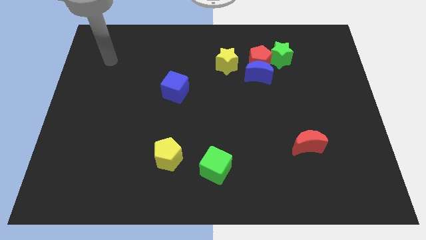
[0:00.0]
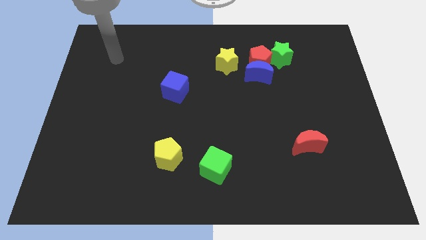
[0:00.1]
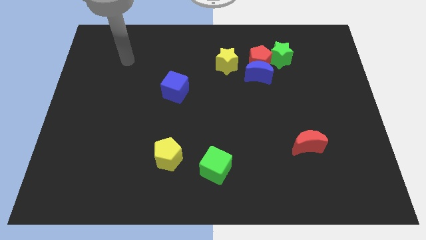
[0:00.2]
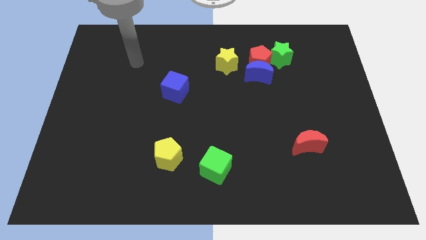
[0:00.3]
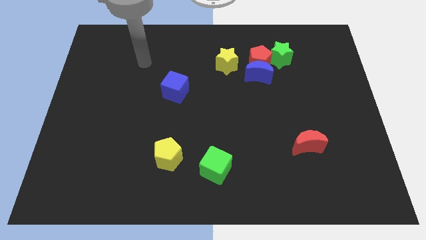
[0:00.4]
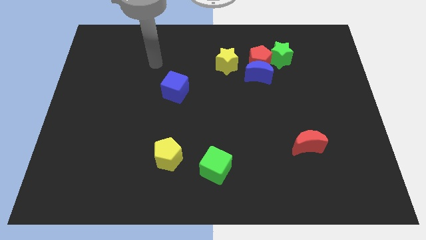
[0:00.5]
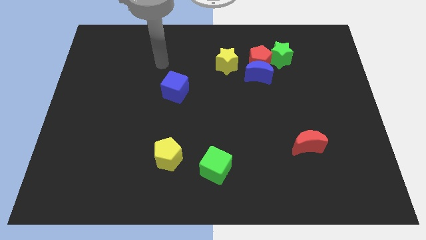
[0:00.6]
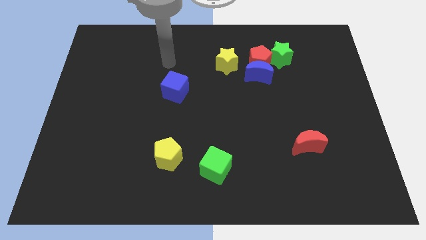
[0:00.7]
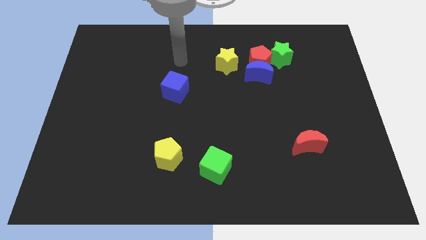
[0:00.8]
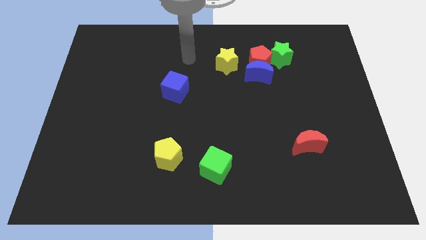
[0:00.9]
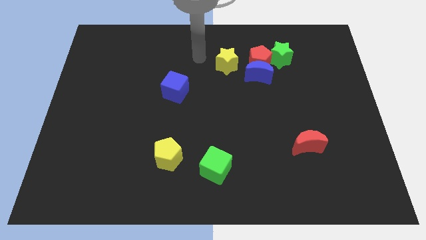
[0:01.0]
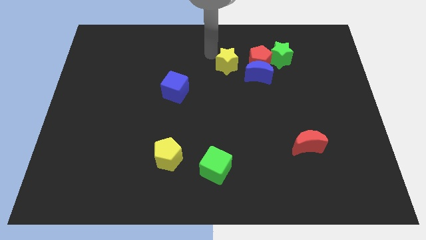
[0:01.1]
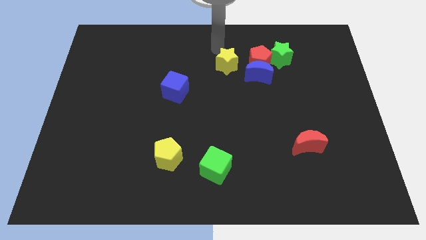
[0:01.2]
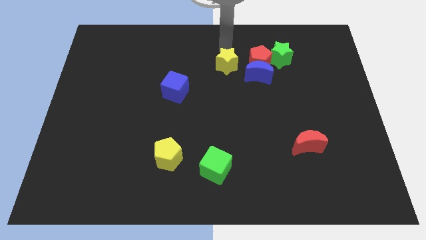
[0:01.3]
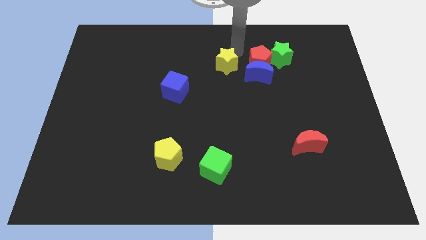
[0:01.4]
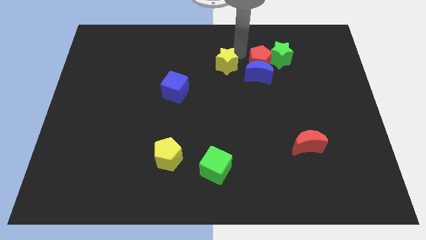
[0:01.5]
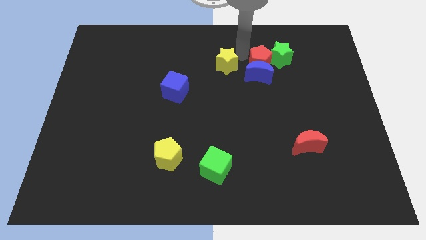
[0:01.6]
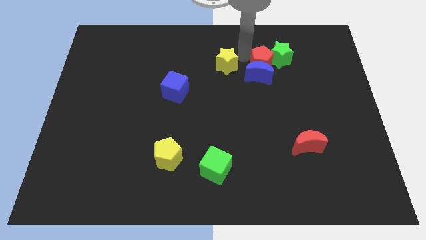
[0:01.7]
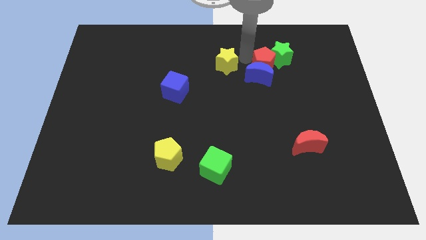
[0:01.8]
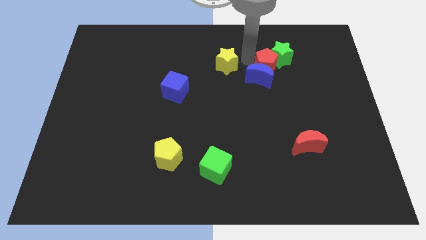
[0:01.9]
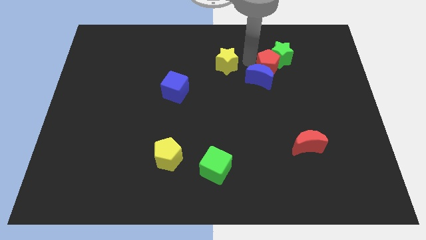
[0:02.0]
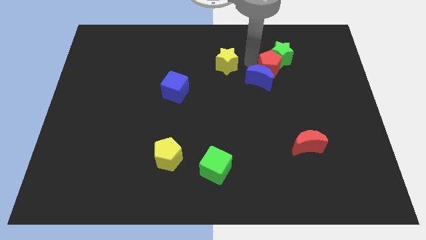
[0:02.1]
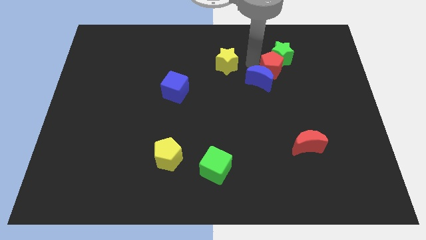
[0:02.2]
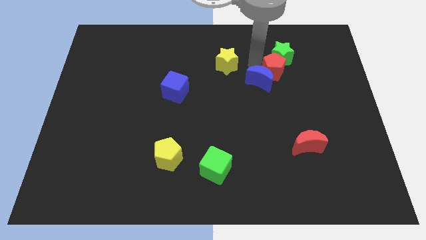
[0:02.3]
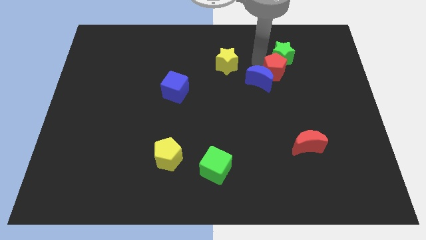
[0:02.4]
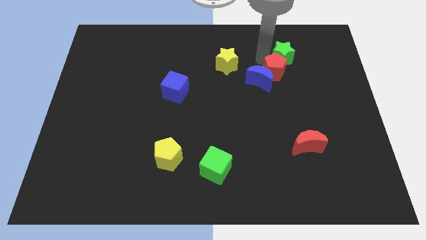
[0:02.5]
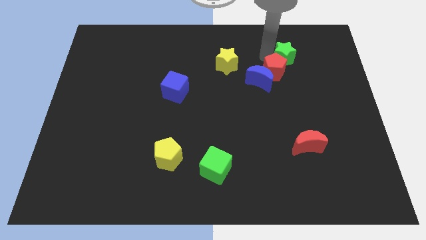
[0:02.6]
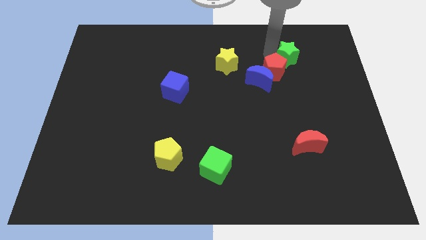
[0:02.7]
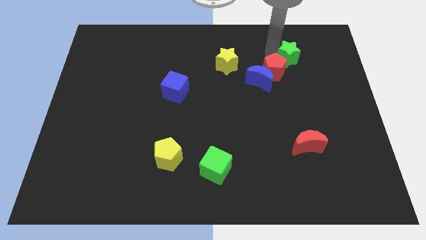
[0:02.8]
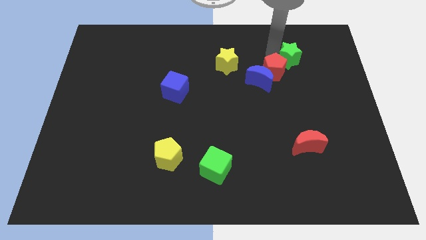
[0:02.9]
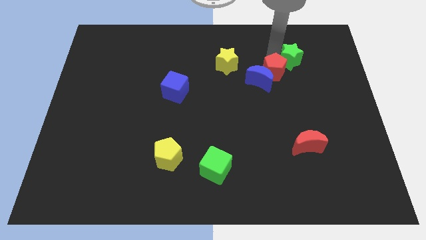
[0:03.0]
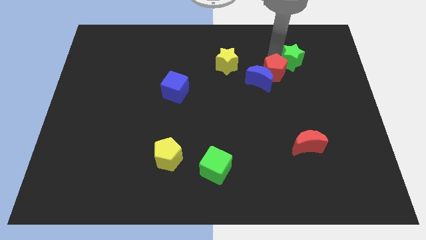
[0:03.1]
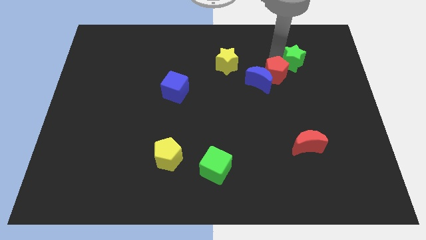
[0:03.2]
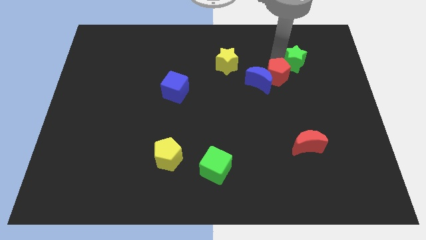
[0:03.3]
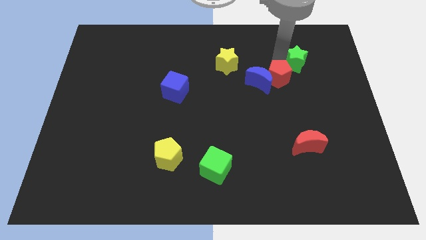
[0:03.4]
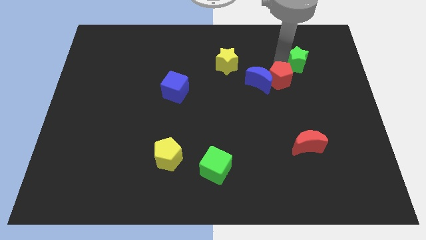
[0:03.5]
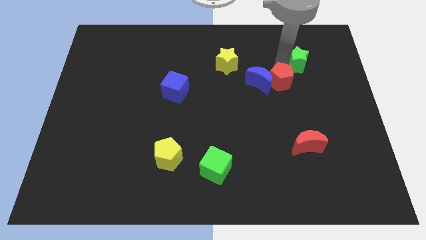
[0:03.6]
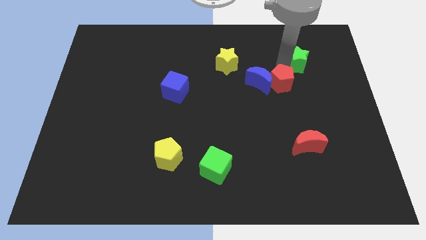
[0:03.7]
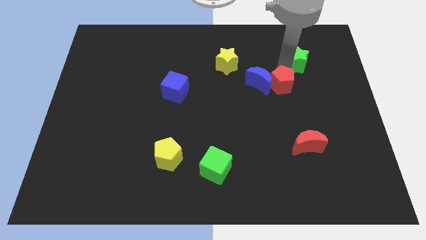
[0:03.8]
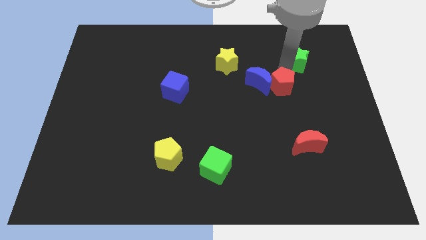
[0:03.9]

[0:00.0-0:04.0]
move the red pentagon slightly downwards

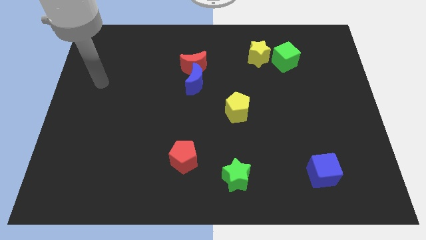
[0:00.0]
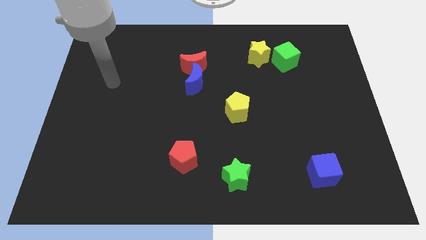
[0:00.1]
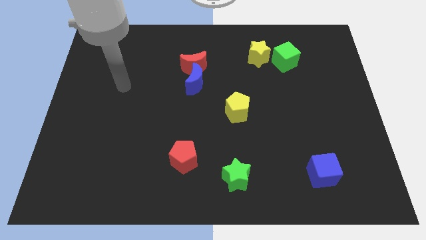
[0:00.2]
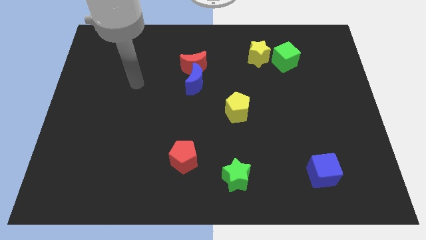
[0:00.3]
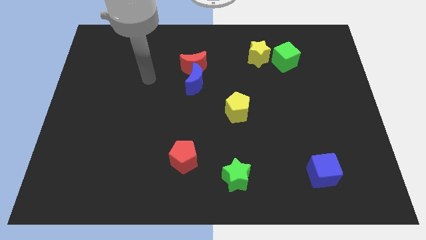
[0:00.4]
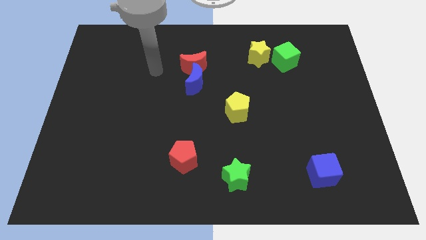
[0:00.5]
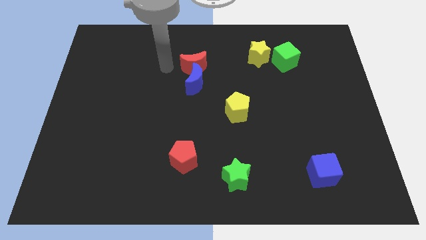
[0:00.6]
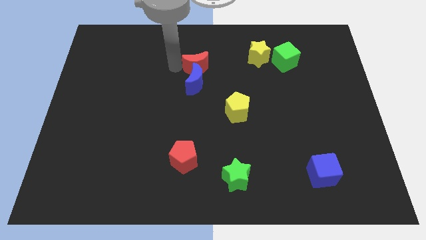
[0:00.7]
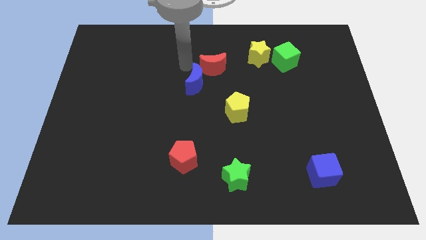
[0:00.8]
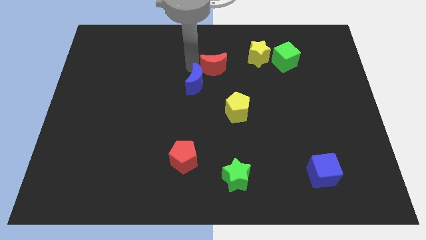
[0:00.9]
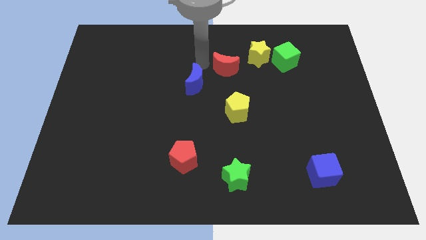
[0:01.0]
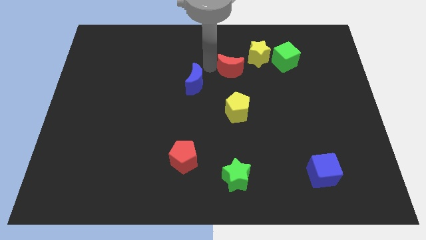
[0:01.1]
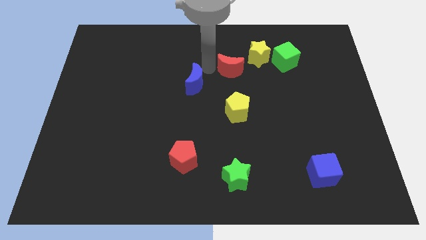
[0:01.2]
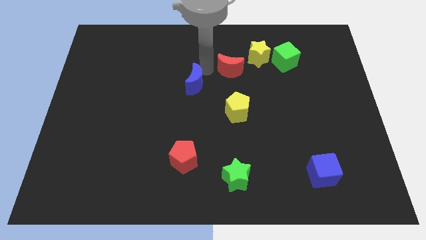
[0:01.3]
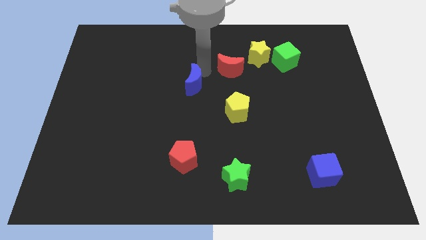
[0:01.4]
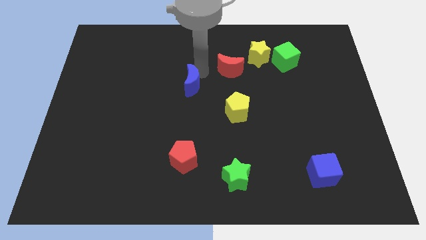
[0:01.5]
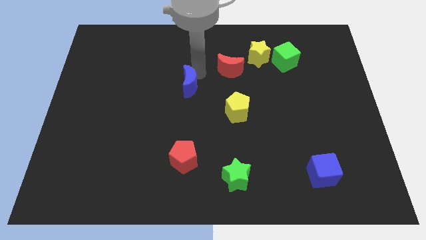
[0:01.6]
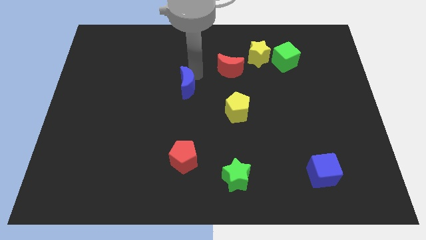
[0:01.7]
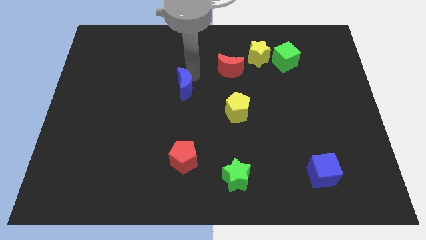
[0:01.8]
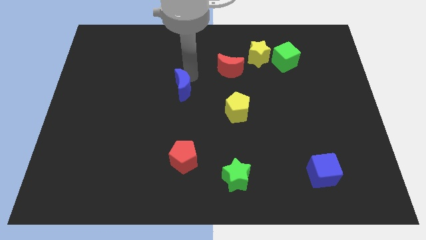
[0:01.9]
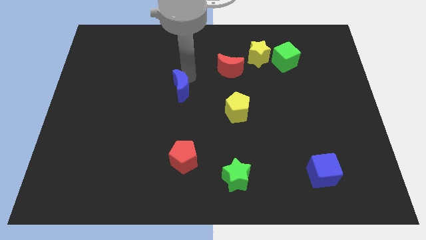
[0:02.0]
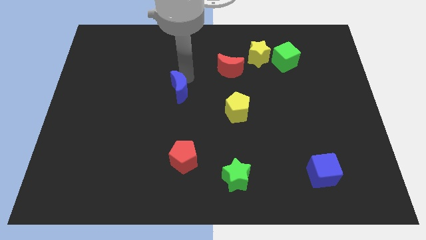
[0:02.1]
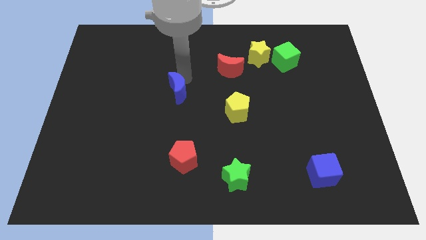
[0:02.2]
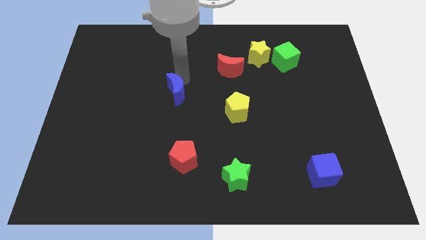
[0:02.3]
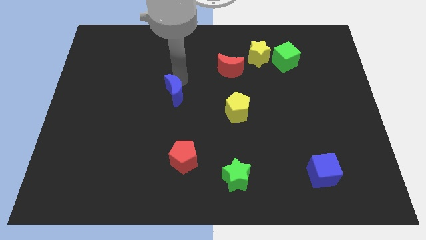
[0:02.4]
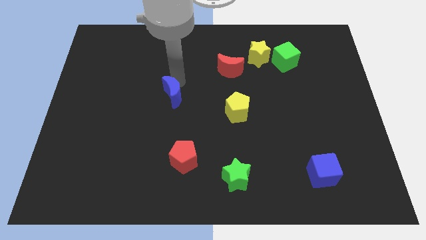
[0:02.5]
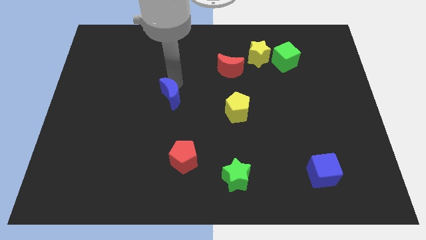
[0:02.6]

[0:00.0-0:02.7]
slide the blue moon downwards and left a bit

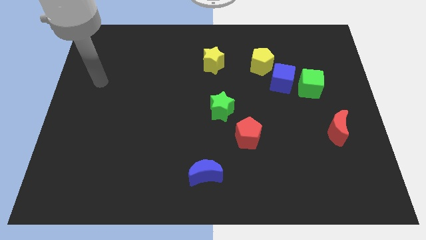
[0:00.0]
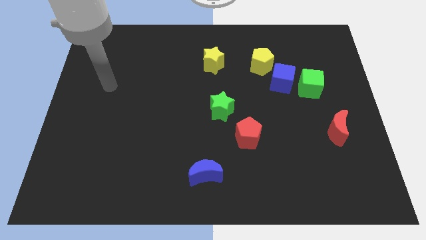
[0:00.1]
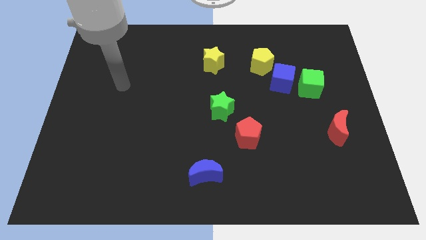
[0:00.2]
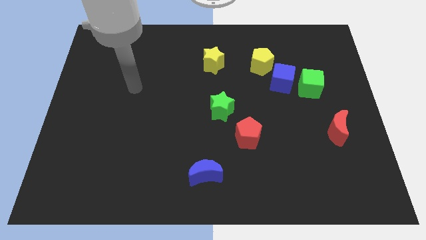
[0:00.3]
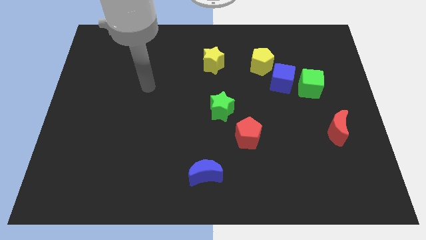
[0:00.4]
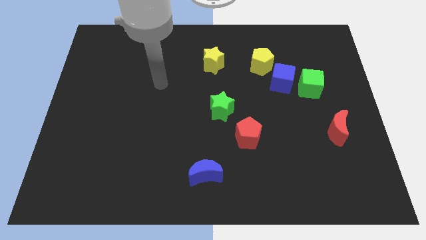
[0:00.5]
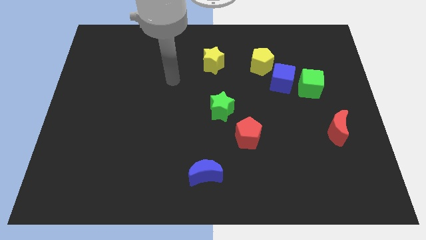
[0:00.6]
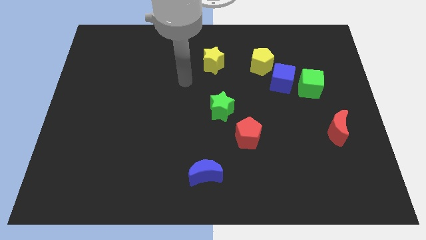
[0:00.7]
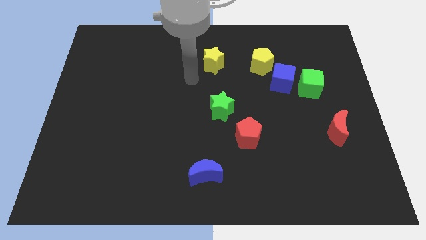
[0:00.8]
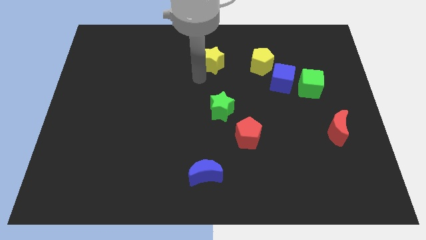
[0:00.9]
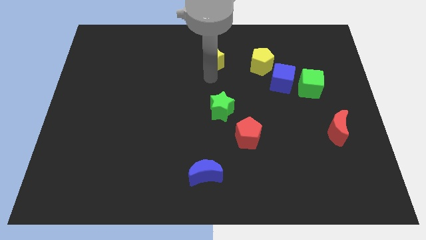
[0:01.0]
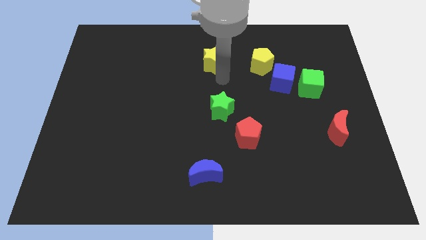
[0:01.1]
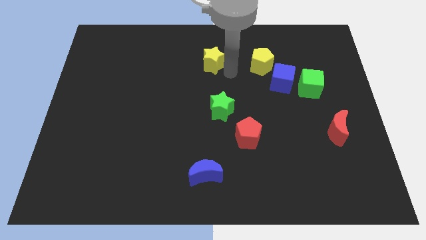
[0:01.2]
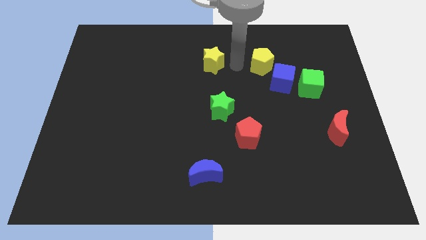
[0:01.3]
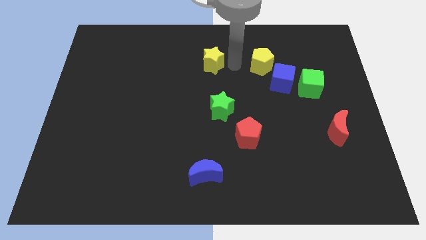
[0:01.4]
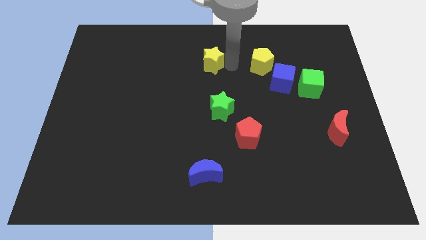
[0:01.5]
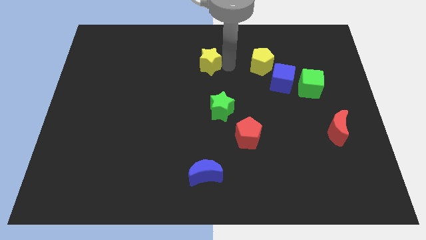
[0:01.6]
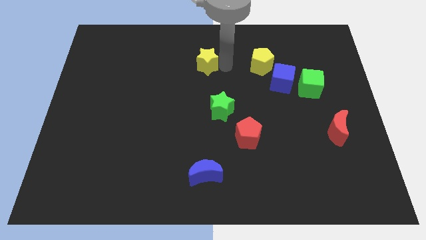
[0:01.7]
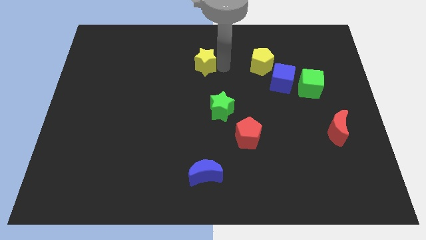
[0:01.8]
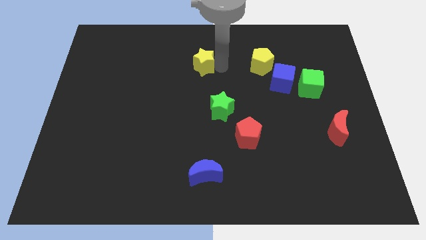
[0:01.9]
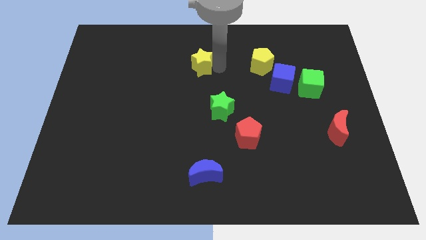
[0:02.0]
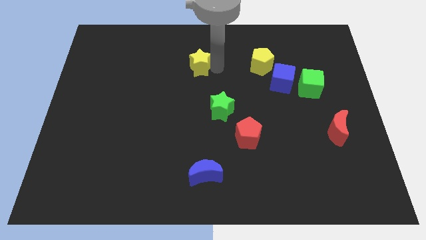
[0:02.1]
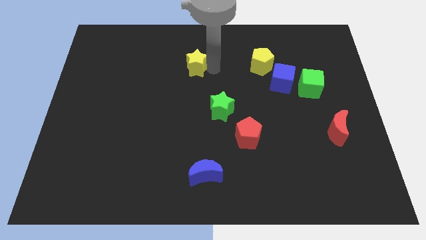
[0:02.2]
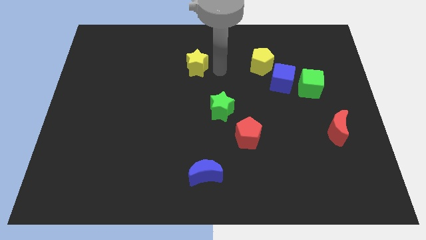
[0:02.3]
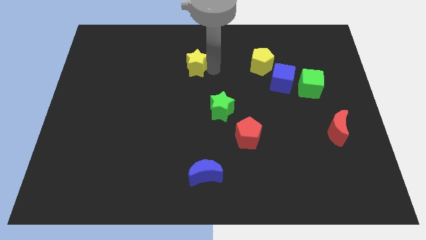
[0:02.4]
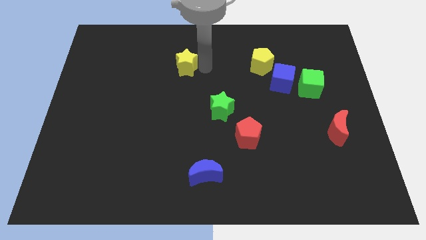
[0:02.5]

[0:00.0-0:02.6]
slightly push the yellow star to the left
